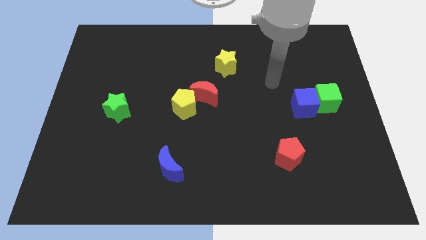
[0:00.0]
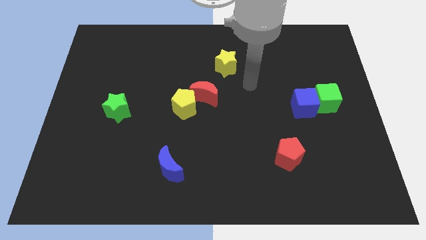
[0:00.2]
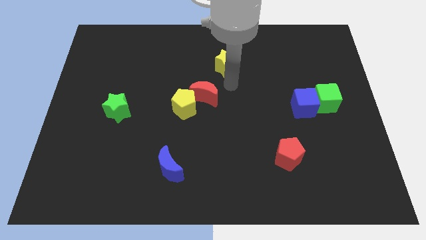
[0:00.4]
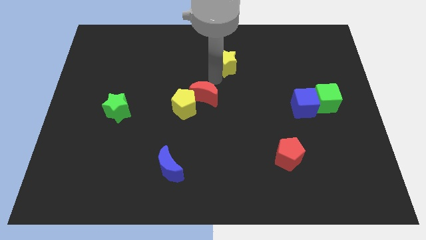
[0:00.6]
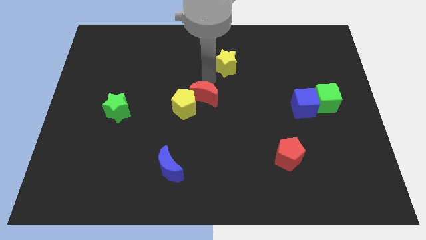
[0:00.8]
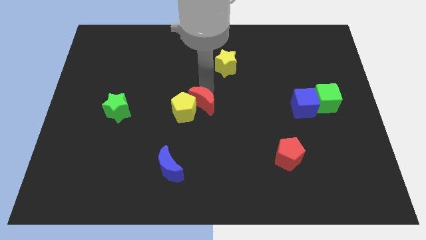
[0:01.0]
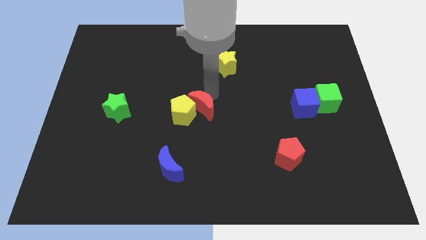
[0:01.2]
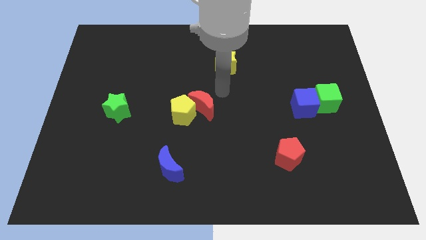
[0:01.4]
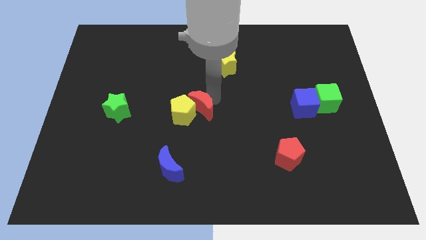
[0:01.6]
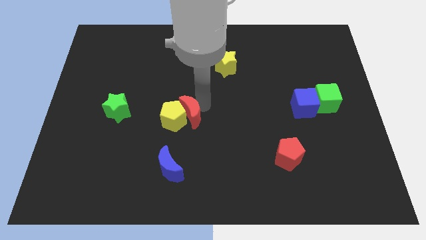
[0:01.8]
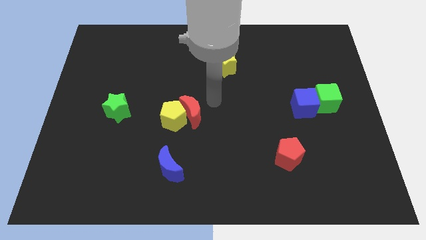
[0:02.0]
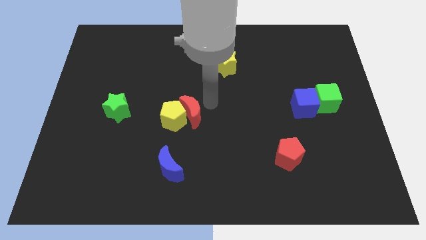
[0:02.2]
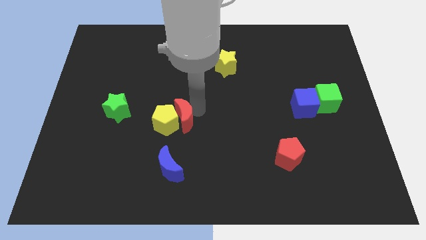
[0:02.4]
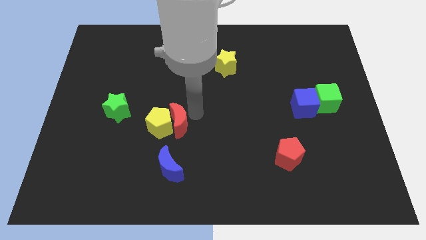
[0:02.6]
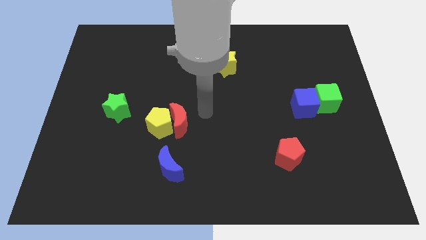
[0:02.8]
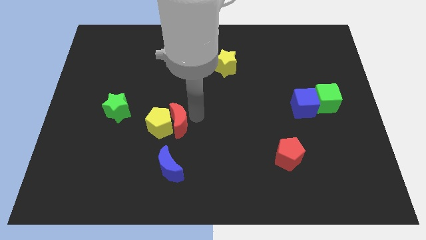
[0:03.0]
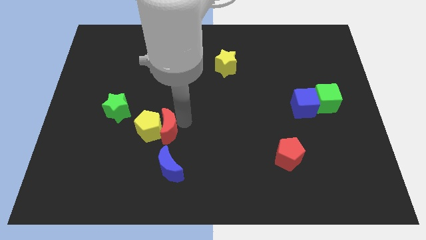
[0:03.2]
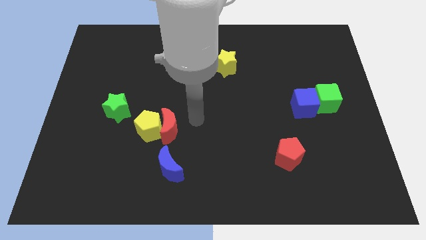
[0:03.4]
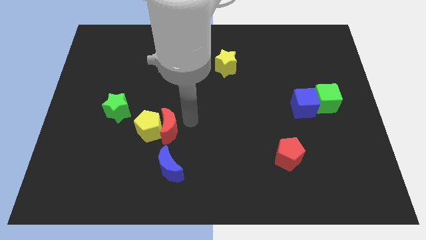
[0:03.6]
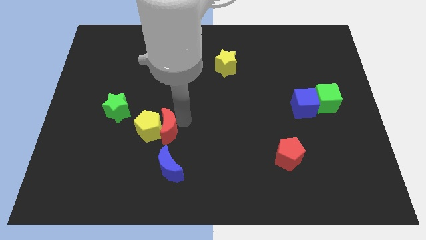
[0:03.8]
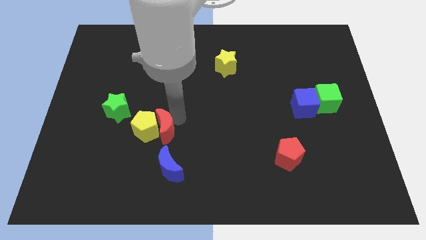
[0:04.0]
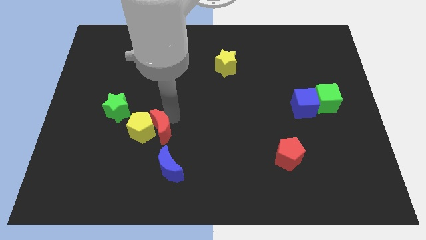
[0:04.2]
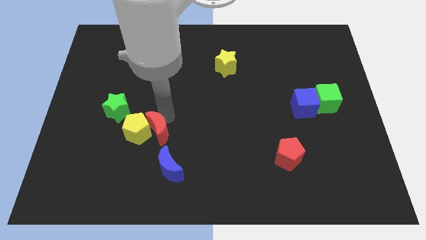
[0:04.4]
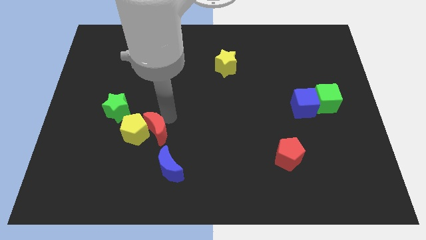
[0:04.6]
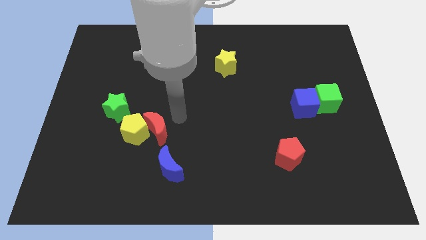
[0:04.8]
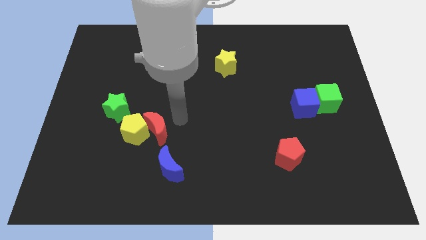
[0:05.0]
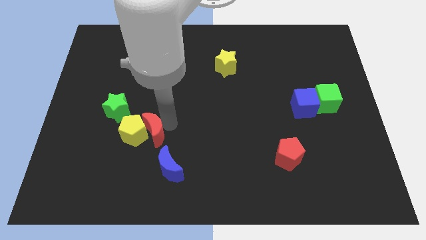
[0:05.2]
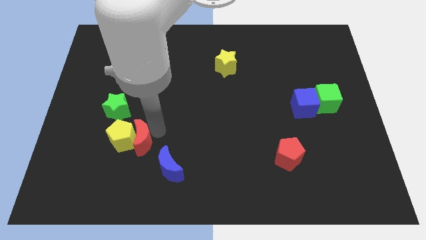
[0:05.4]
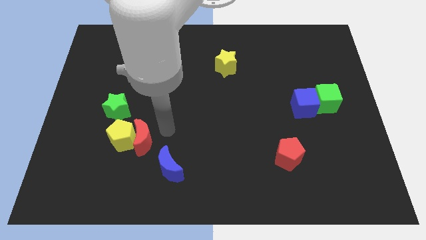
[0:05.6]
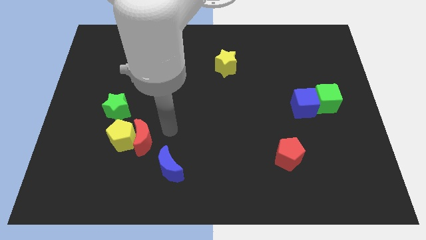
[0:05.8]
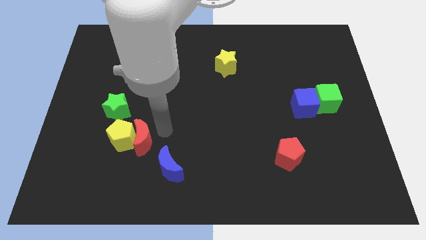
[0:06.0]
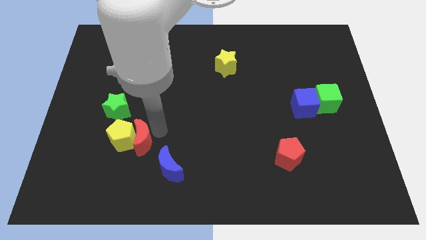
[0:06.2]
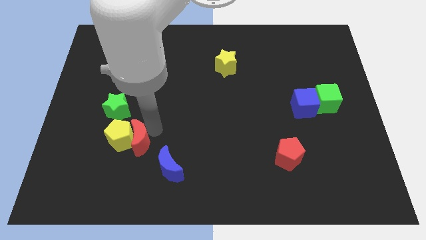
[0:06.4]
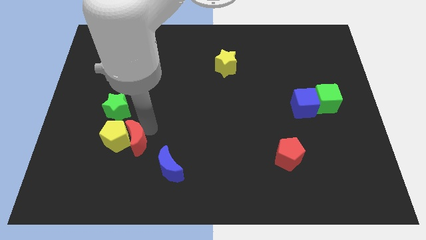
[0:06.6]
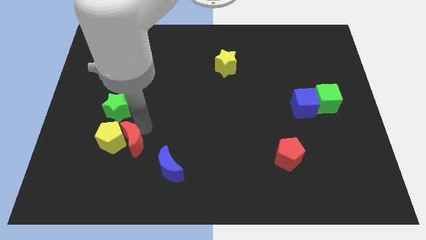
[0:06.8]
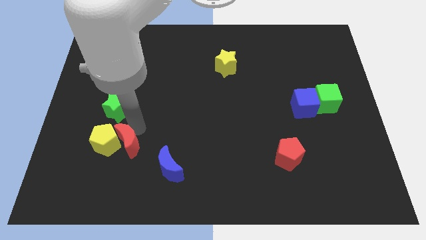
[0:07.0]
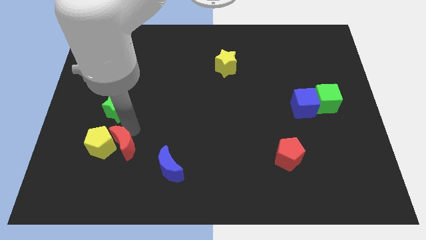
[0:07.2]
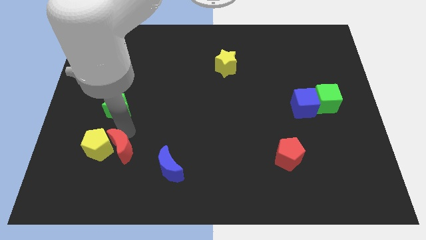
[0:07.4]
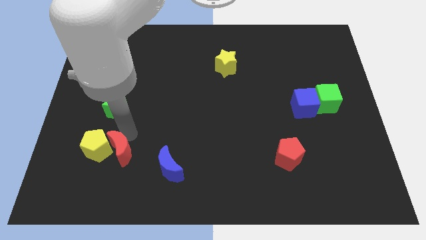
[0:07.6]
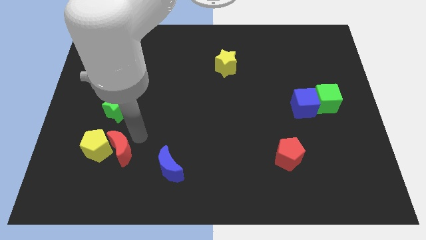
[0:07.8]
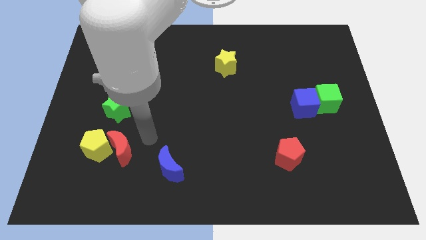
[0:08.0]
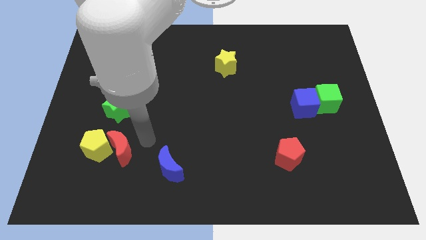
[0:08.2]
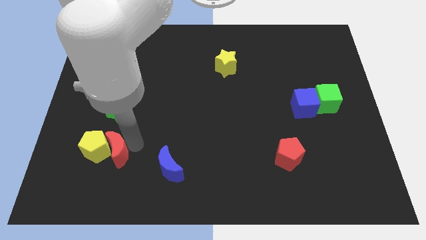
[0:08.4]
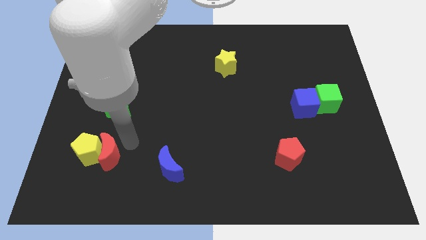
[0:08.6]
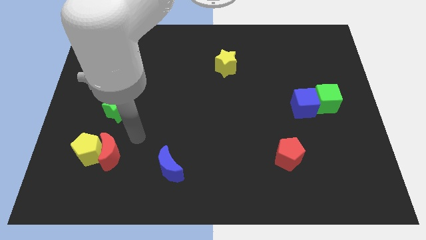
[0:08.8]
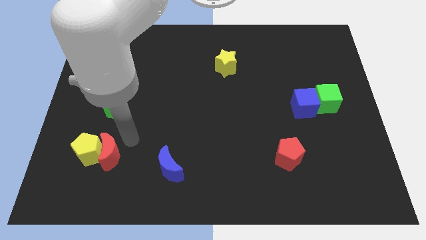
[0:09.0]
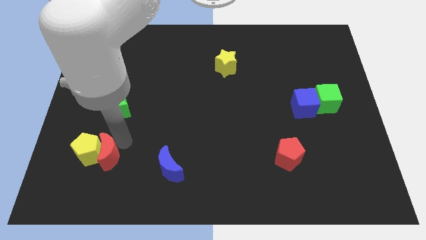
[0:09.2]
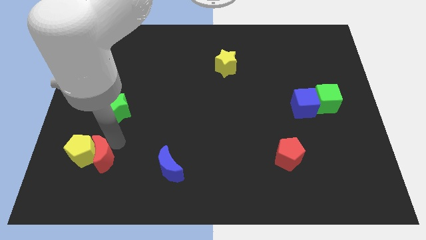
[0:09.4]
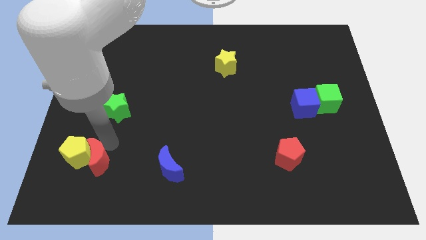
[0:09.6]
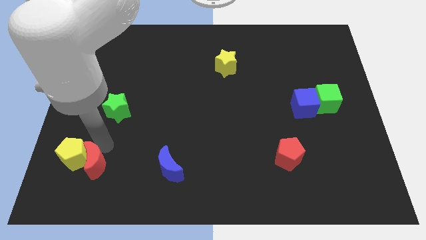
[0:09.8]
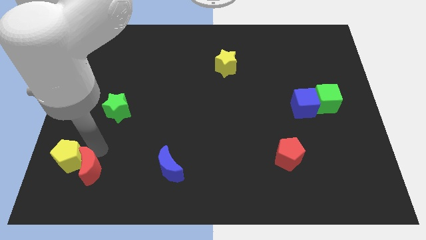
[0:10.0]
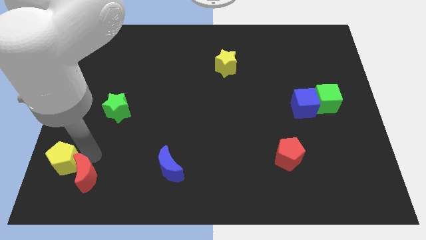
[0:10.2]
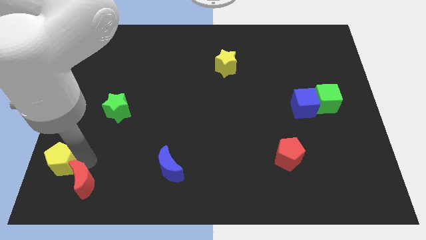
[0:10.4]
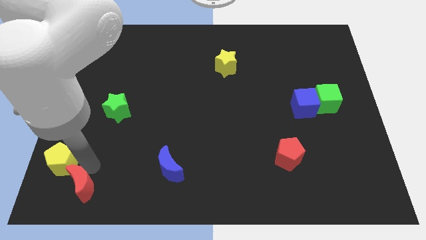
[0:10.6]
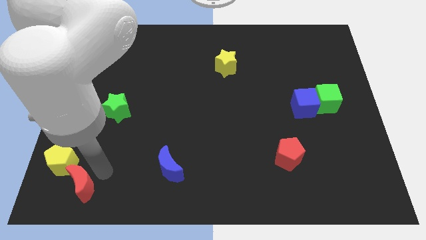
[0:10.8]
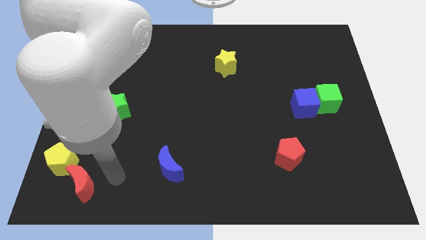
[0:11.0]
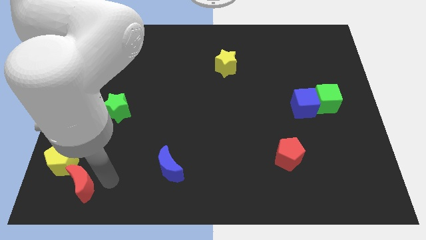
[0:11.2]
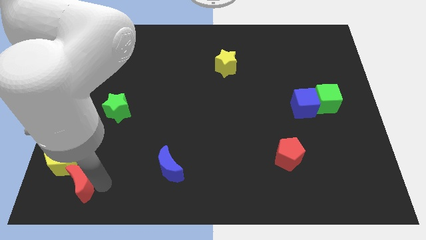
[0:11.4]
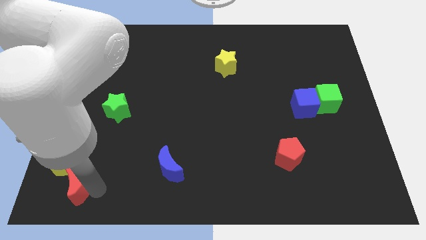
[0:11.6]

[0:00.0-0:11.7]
put the red moon to the bottom left of the board

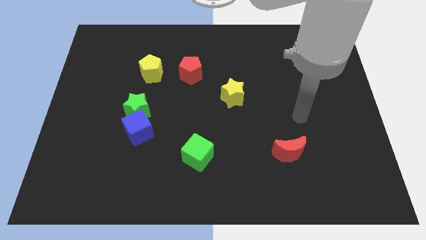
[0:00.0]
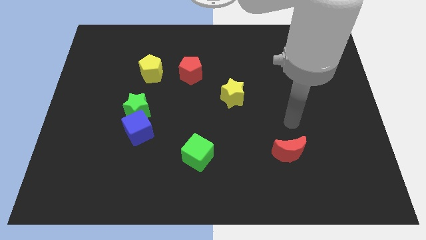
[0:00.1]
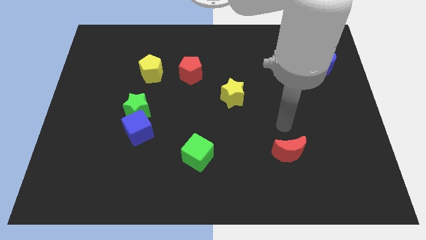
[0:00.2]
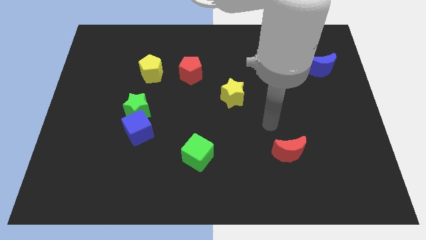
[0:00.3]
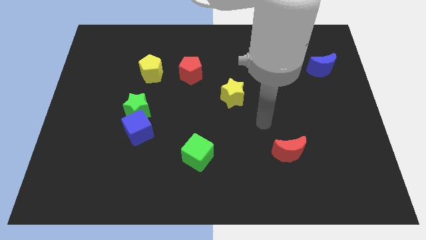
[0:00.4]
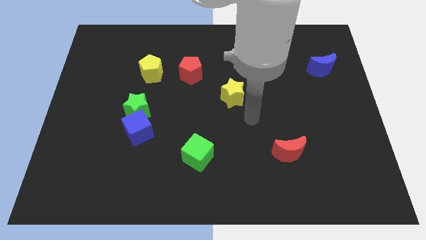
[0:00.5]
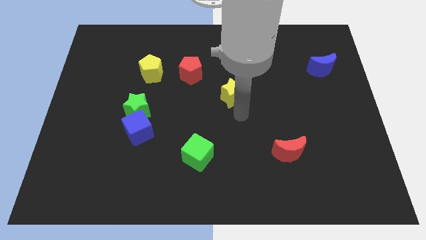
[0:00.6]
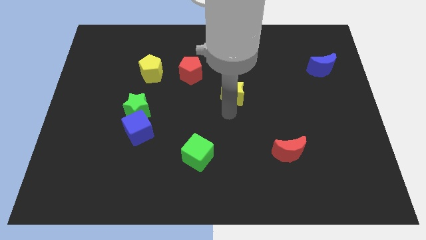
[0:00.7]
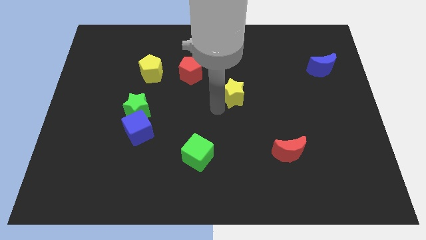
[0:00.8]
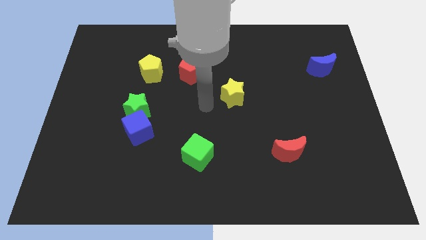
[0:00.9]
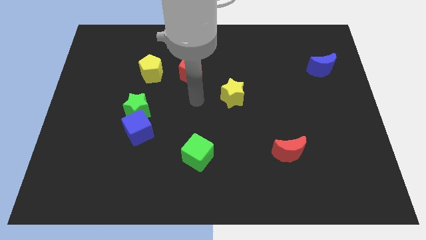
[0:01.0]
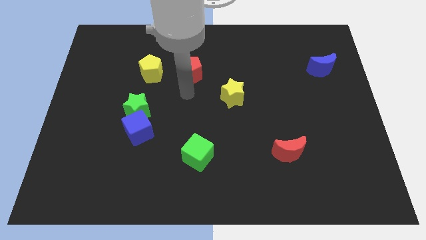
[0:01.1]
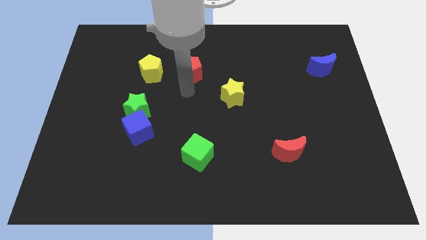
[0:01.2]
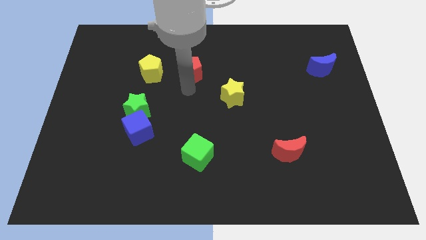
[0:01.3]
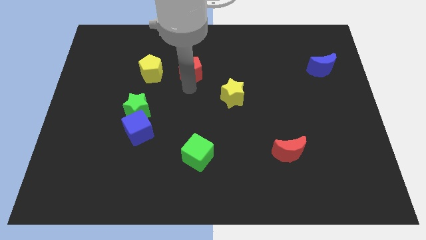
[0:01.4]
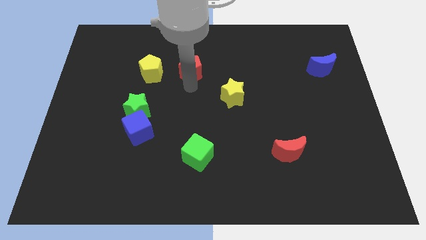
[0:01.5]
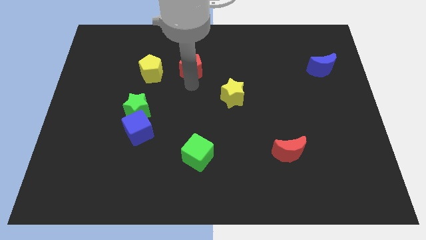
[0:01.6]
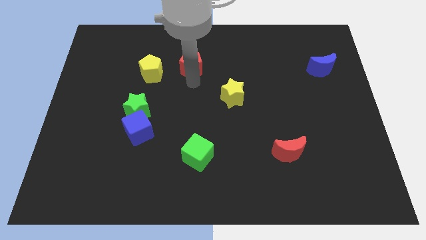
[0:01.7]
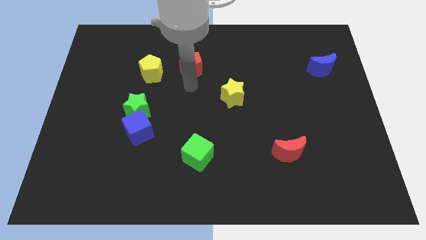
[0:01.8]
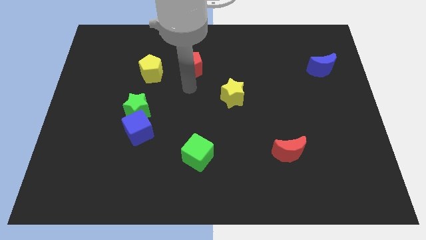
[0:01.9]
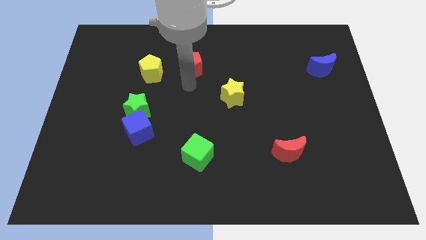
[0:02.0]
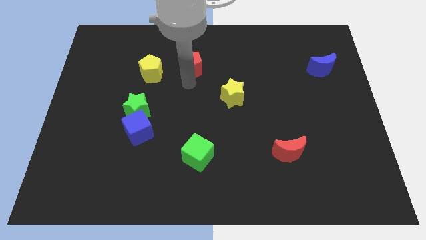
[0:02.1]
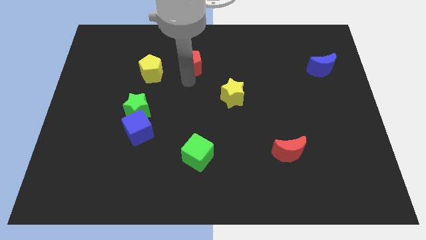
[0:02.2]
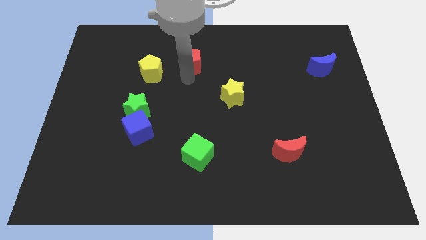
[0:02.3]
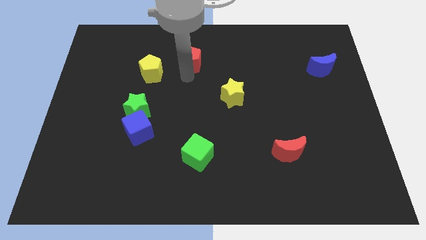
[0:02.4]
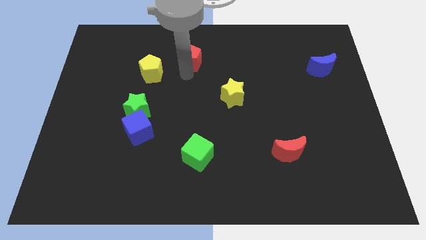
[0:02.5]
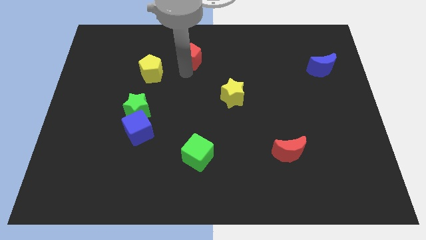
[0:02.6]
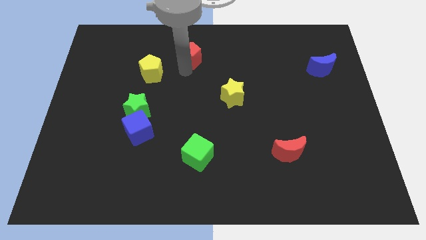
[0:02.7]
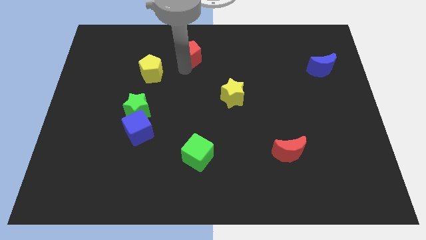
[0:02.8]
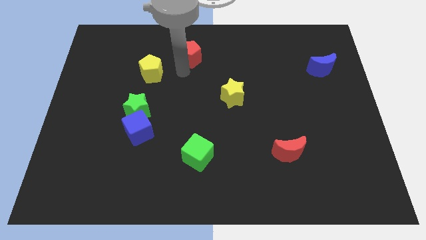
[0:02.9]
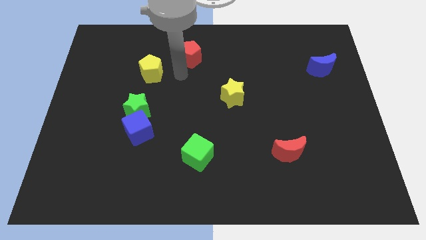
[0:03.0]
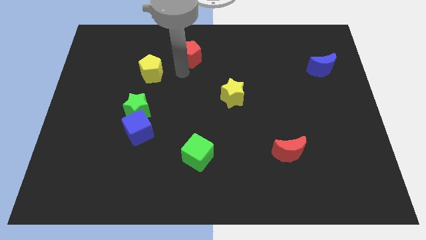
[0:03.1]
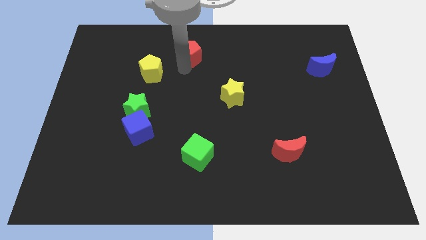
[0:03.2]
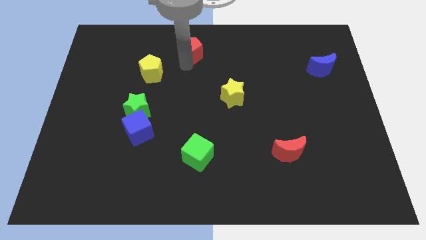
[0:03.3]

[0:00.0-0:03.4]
move the red pentagon to the top
